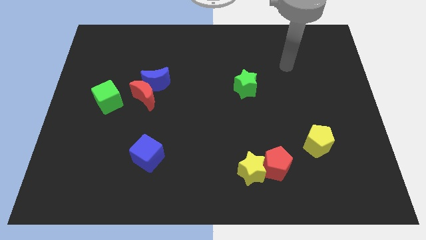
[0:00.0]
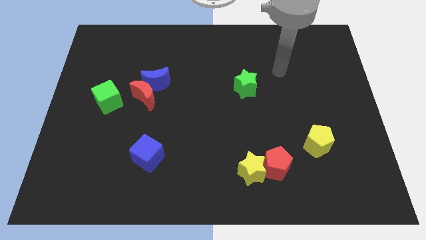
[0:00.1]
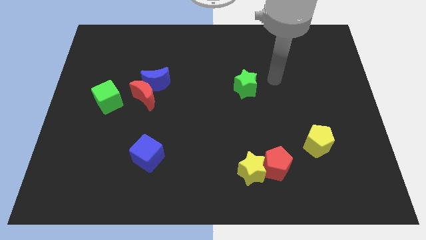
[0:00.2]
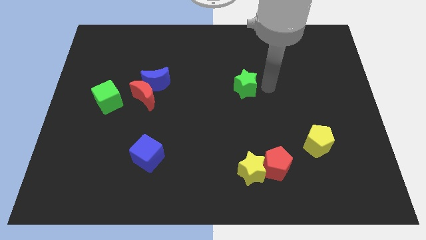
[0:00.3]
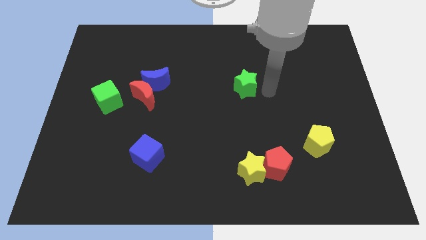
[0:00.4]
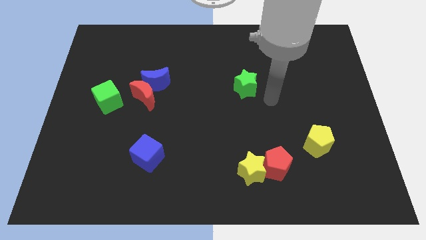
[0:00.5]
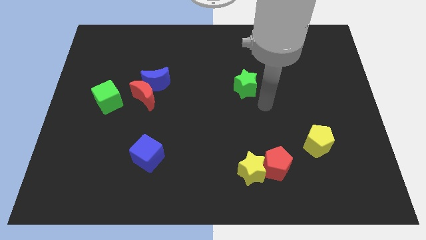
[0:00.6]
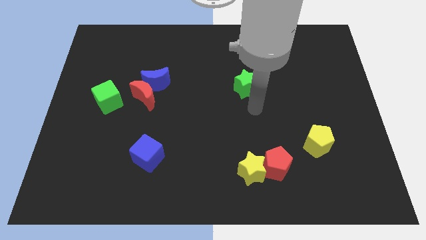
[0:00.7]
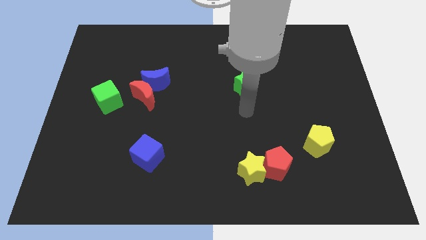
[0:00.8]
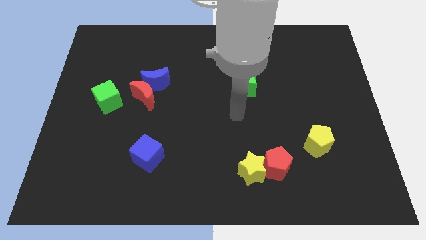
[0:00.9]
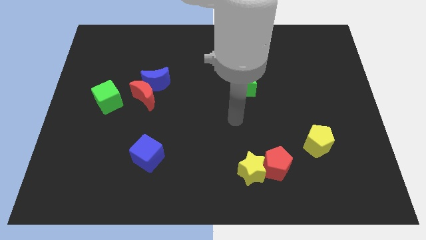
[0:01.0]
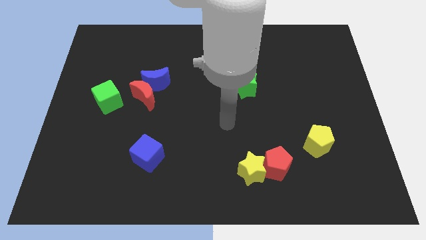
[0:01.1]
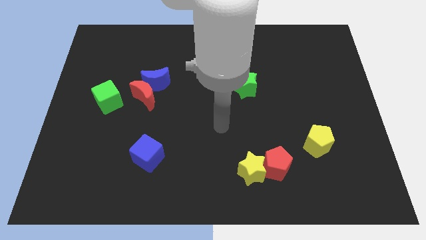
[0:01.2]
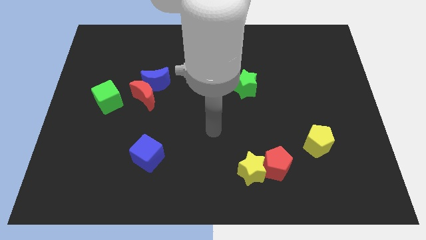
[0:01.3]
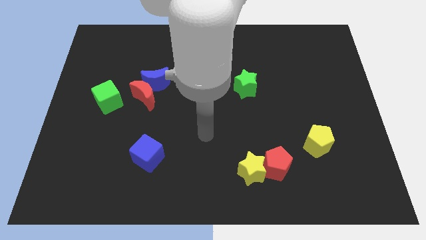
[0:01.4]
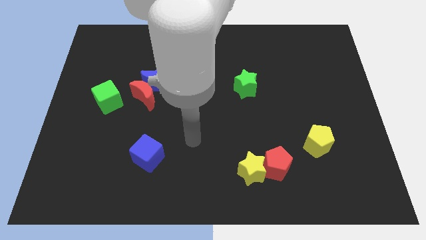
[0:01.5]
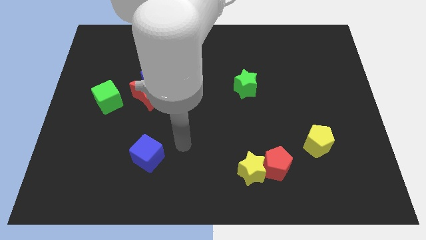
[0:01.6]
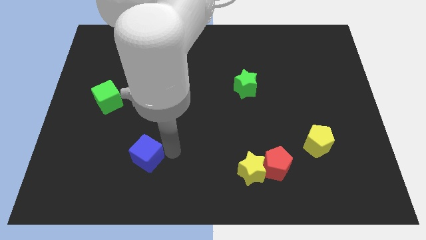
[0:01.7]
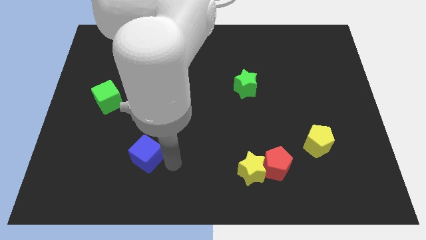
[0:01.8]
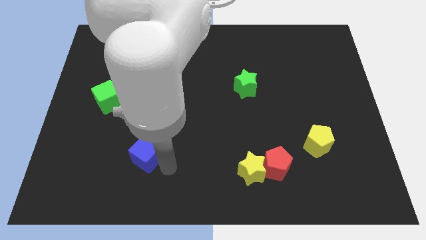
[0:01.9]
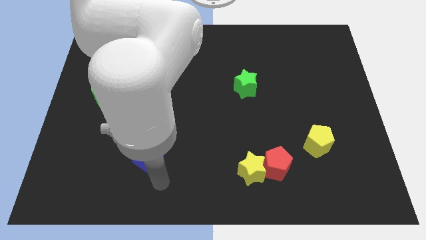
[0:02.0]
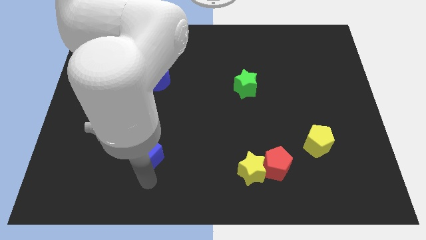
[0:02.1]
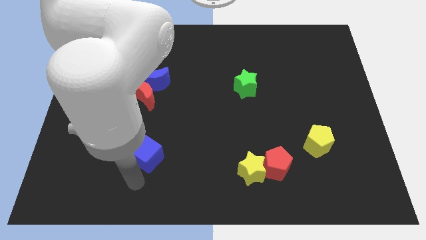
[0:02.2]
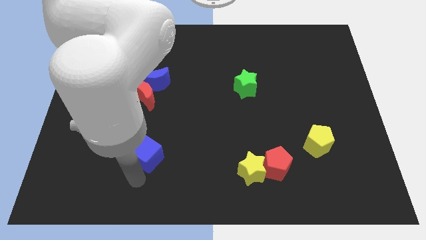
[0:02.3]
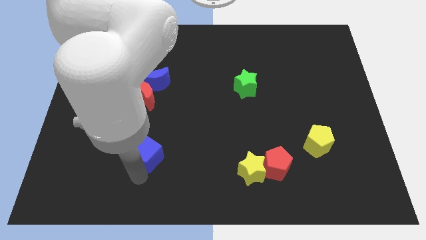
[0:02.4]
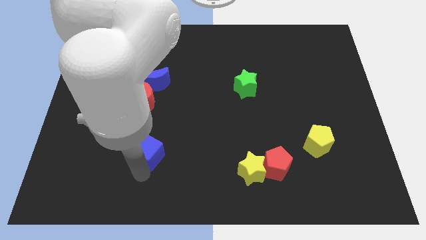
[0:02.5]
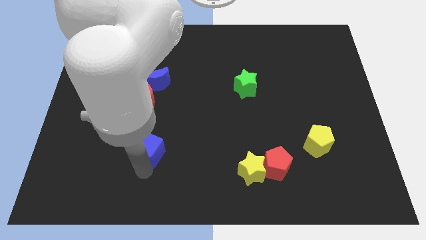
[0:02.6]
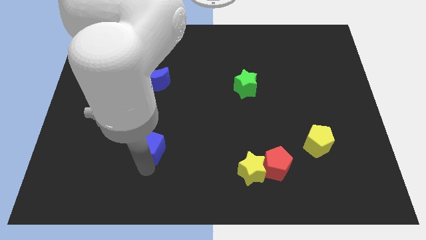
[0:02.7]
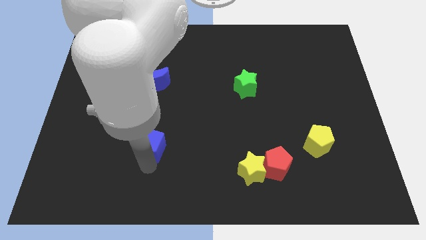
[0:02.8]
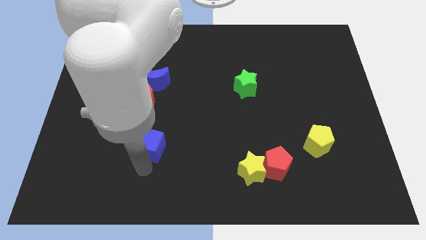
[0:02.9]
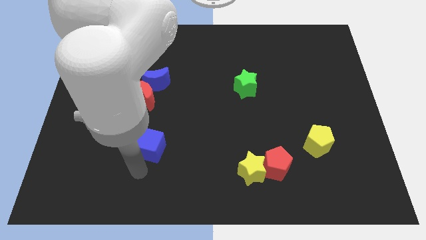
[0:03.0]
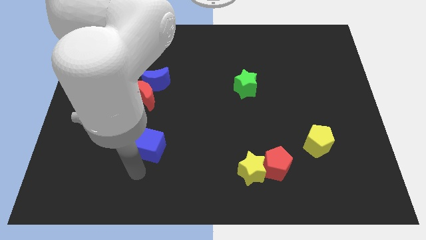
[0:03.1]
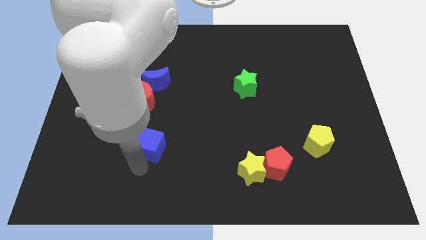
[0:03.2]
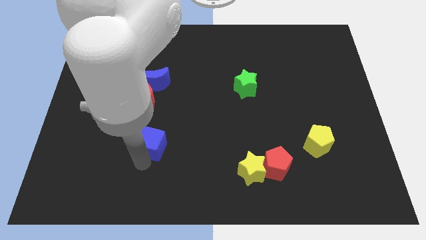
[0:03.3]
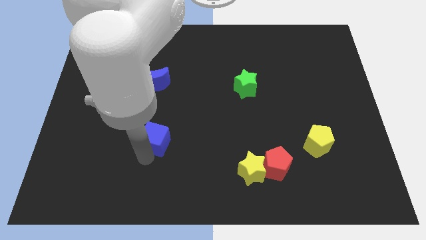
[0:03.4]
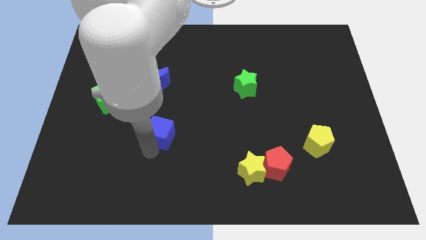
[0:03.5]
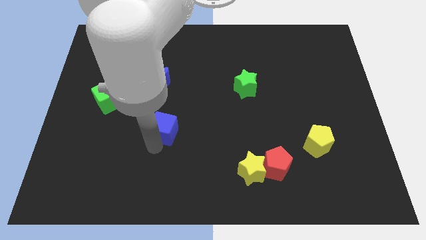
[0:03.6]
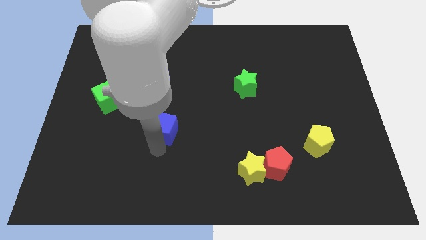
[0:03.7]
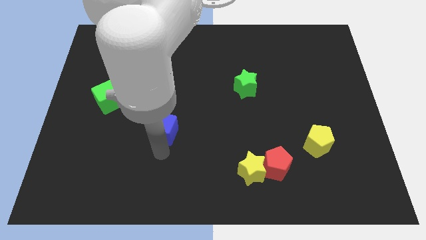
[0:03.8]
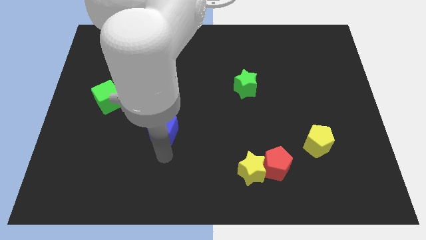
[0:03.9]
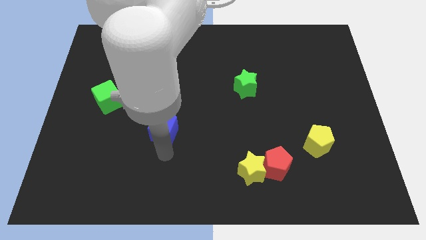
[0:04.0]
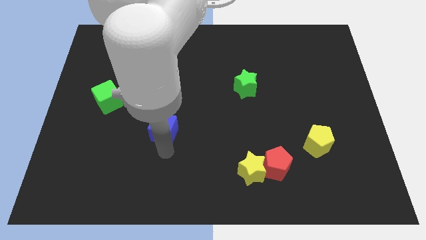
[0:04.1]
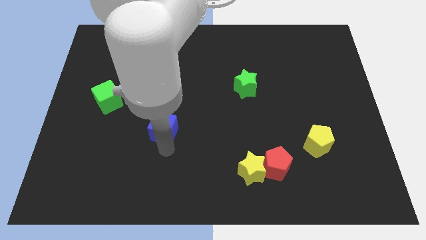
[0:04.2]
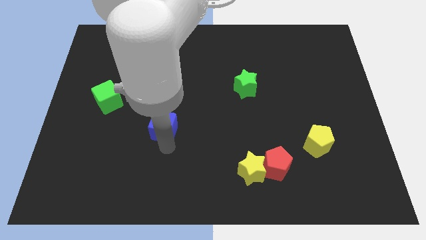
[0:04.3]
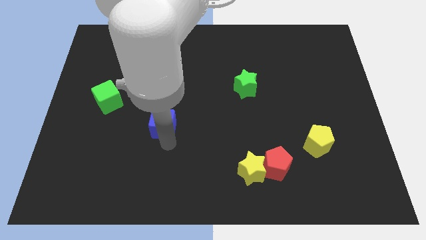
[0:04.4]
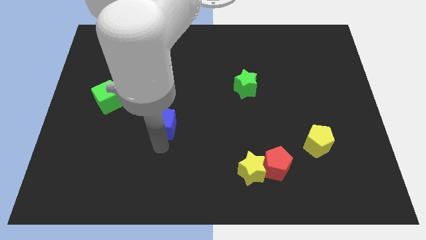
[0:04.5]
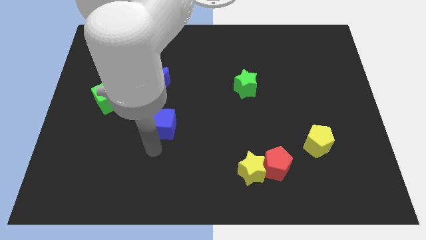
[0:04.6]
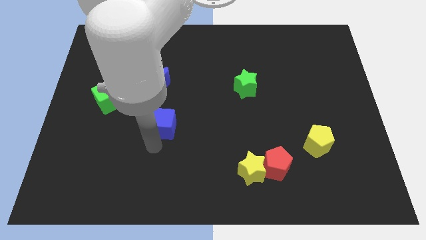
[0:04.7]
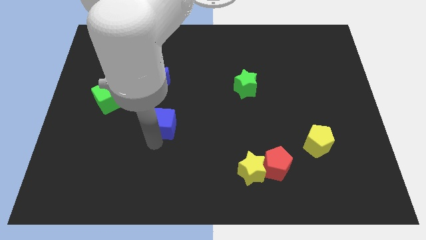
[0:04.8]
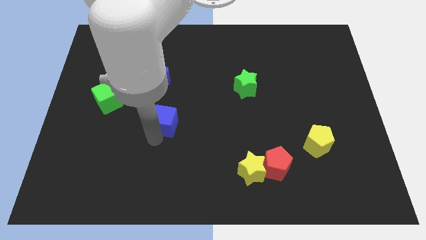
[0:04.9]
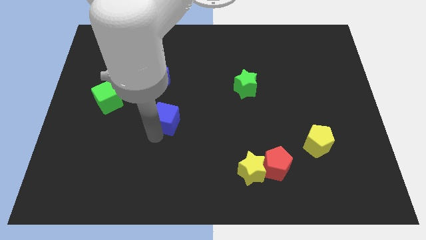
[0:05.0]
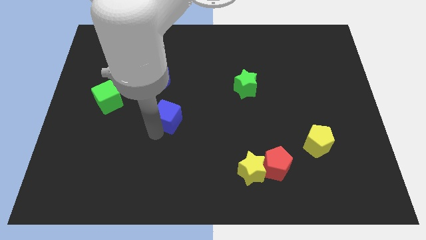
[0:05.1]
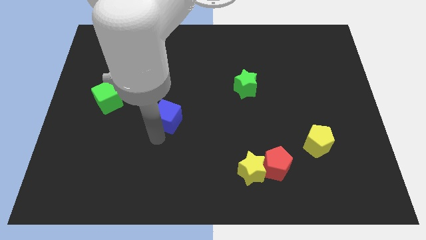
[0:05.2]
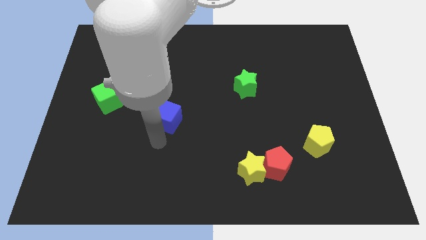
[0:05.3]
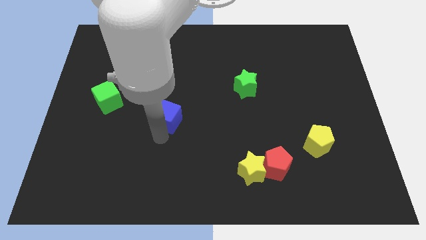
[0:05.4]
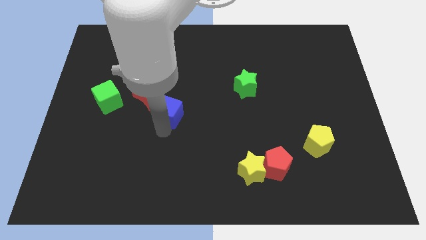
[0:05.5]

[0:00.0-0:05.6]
put the blue cube to the bottom right of the blue moon

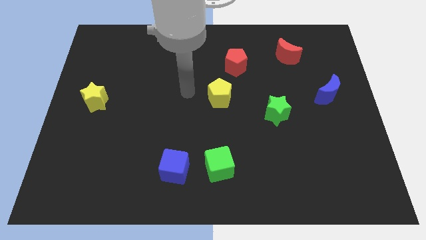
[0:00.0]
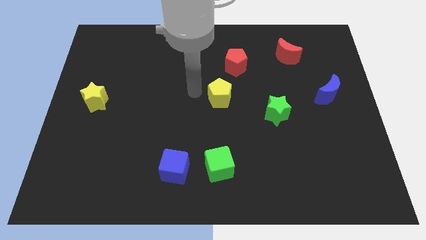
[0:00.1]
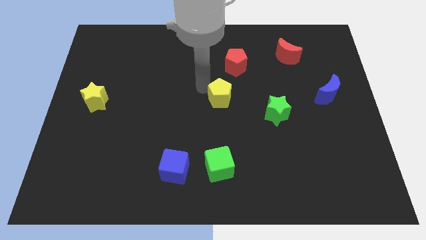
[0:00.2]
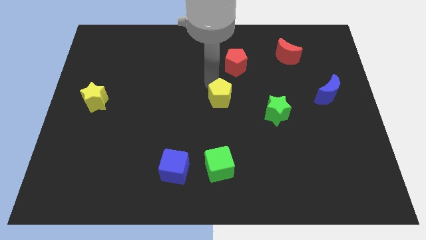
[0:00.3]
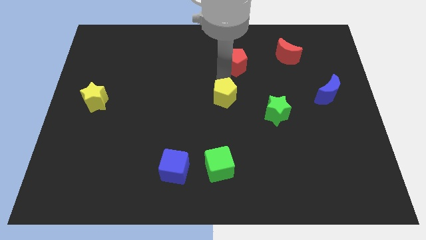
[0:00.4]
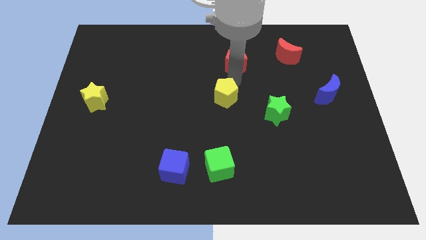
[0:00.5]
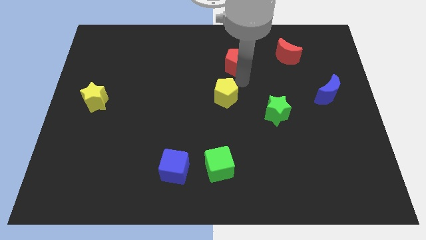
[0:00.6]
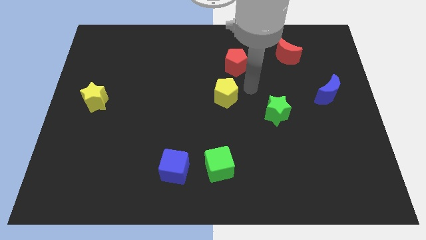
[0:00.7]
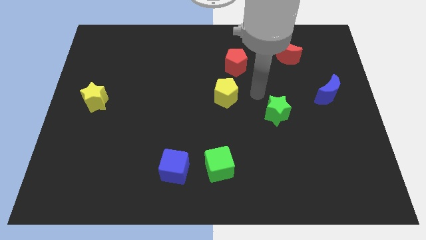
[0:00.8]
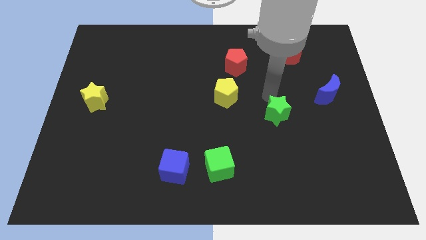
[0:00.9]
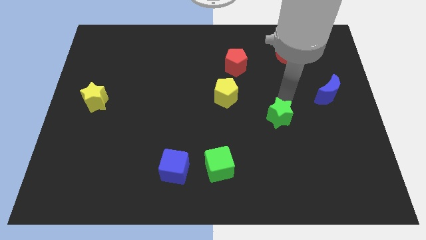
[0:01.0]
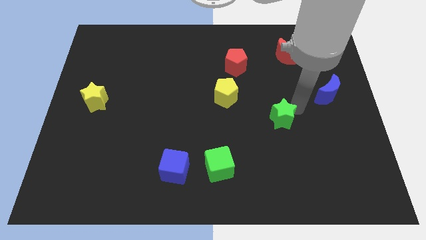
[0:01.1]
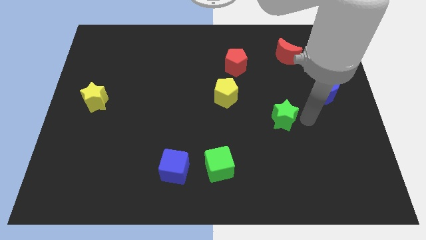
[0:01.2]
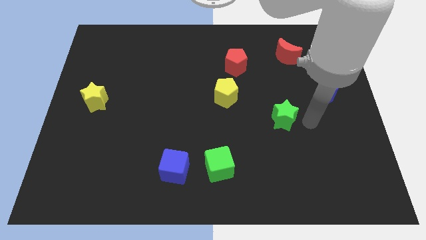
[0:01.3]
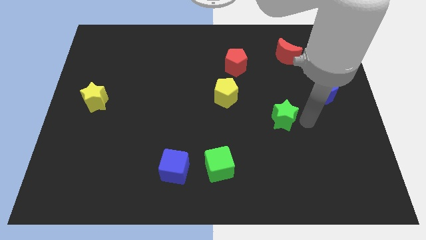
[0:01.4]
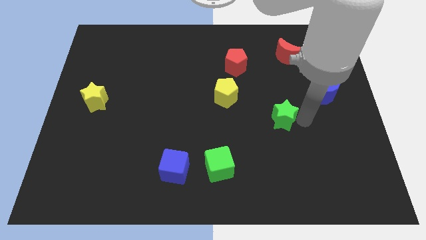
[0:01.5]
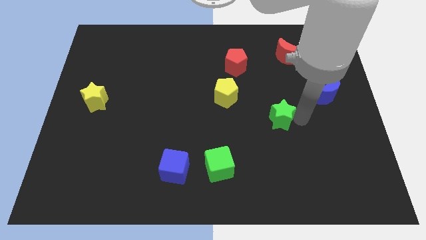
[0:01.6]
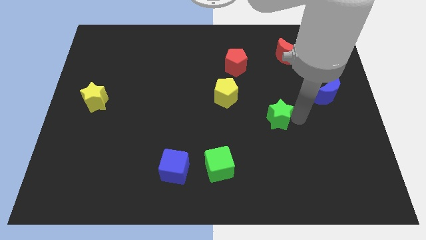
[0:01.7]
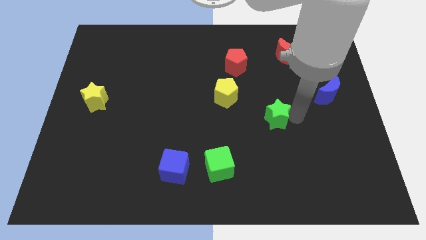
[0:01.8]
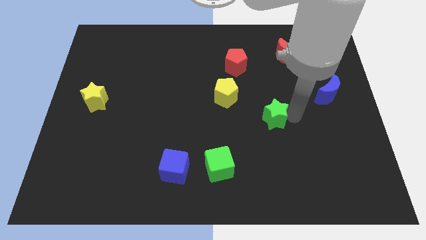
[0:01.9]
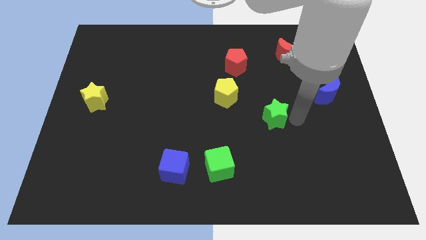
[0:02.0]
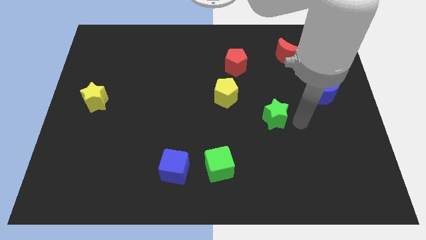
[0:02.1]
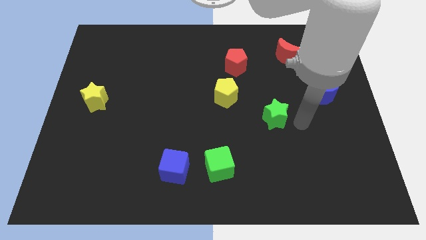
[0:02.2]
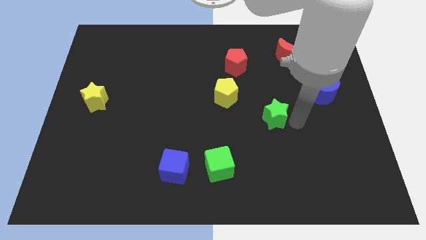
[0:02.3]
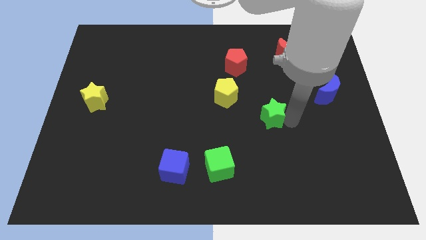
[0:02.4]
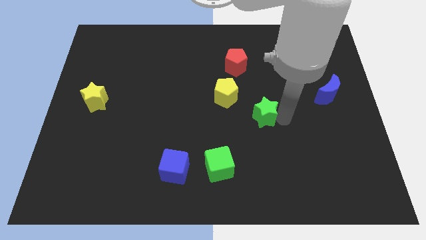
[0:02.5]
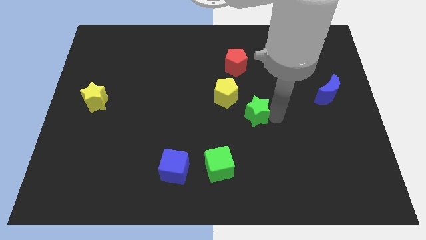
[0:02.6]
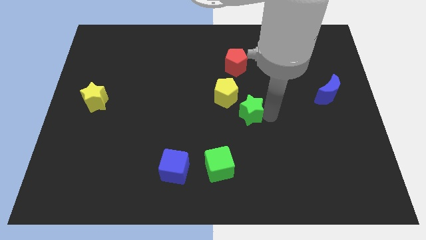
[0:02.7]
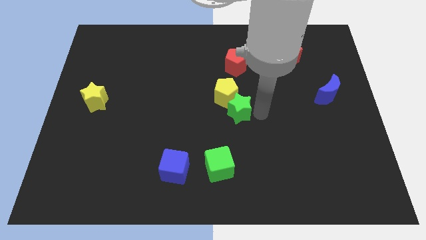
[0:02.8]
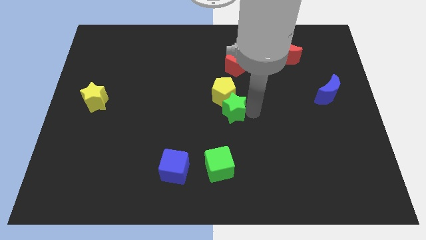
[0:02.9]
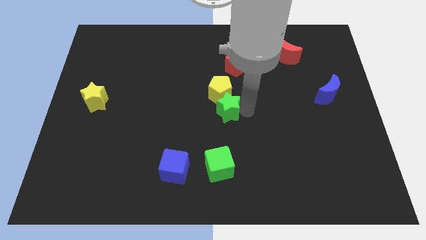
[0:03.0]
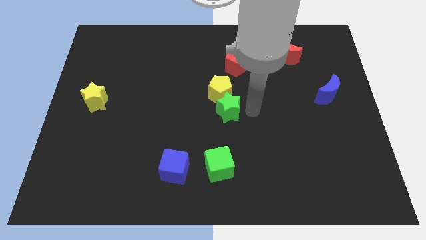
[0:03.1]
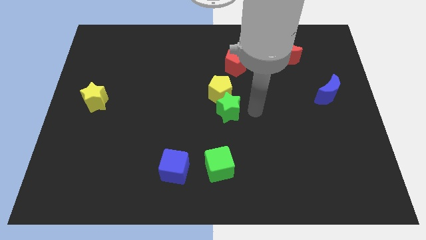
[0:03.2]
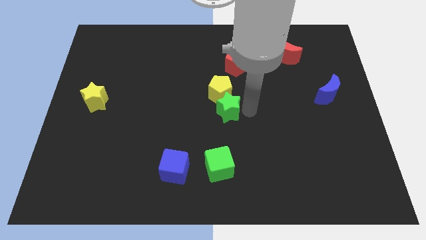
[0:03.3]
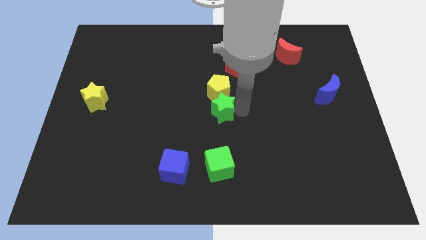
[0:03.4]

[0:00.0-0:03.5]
slide the green star to the bottom left side of the yellow pentagon
